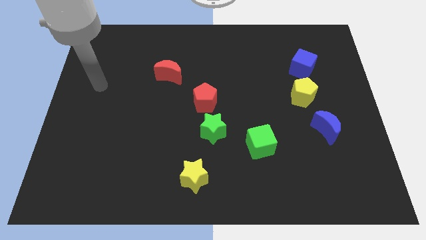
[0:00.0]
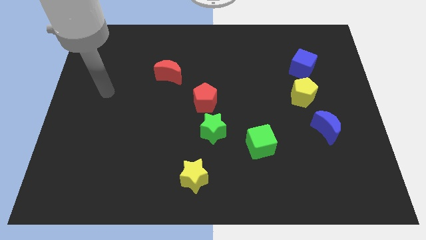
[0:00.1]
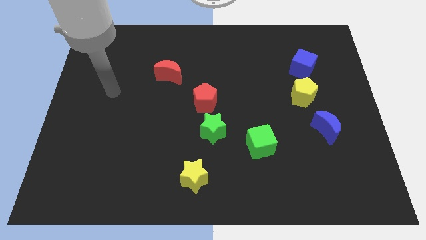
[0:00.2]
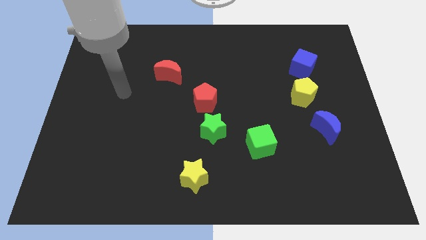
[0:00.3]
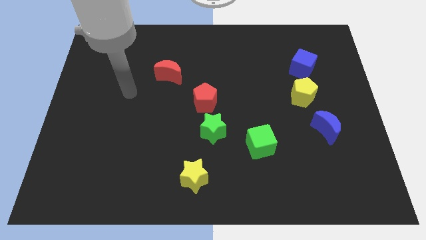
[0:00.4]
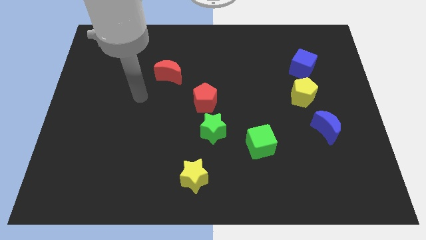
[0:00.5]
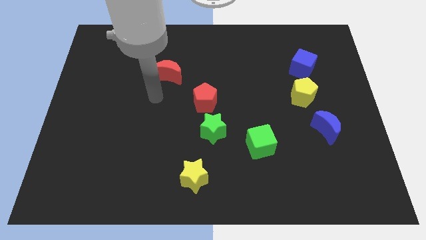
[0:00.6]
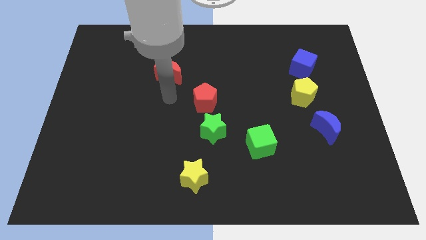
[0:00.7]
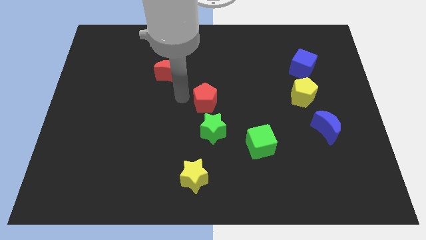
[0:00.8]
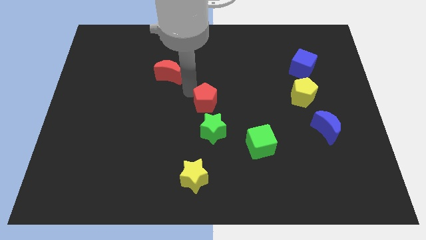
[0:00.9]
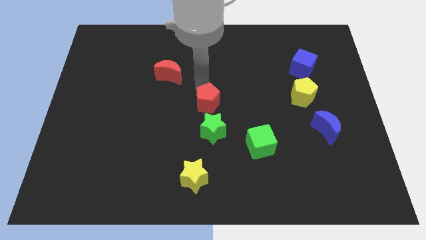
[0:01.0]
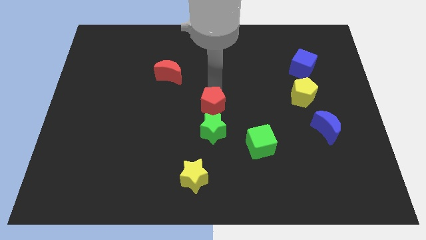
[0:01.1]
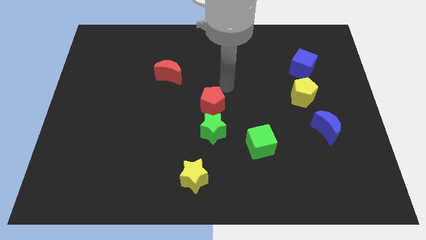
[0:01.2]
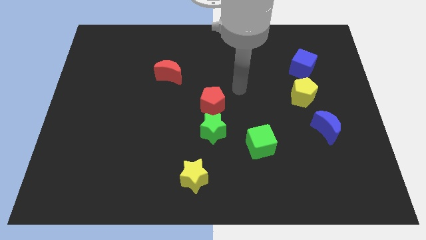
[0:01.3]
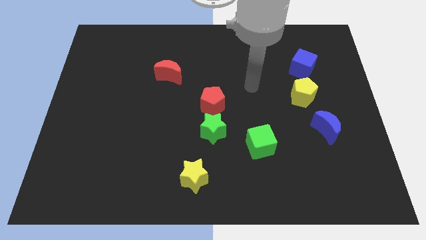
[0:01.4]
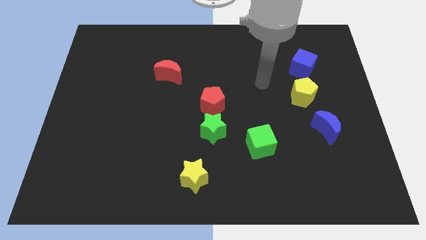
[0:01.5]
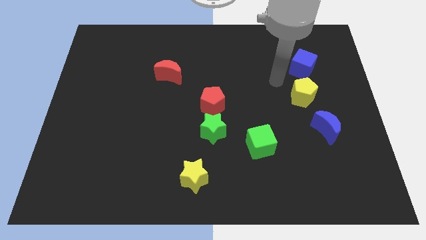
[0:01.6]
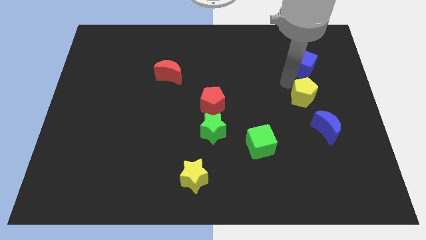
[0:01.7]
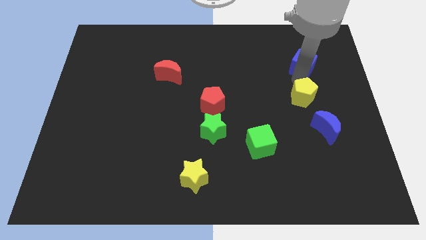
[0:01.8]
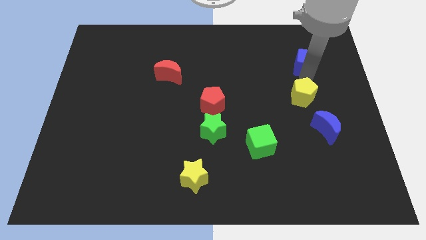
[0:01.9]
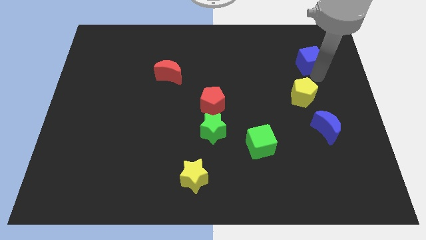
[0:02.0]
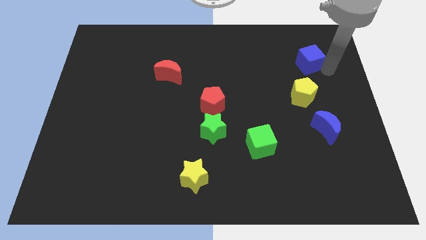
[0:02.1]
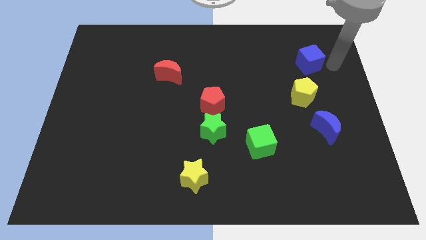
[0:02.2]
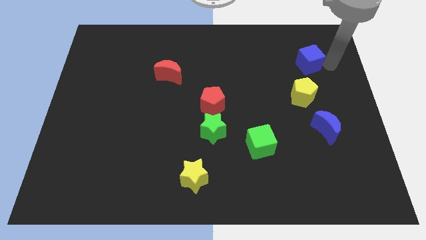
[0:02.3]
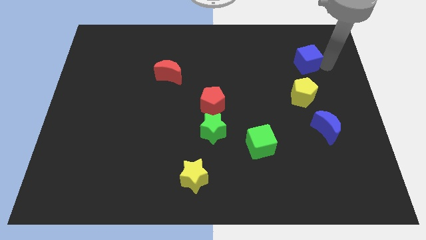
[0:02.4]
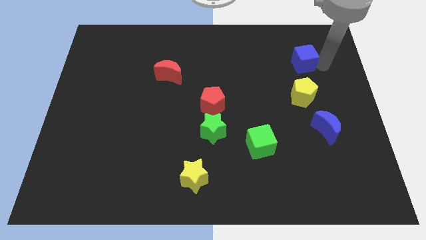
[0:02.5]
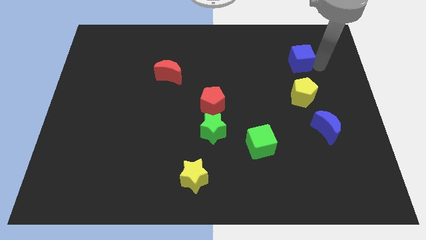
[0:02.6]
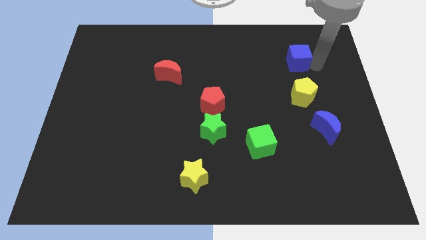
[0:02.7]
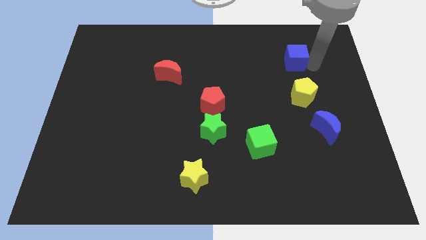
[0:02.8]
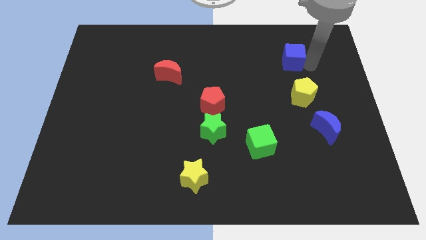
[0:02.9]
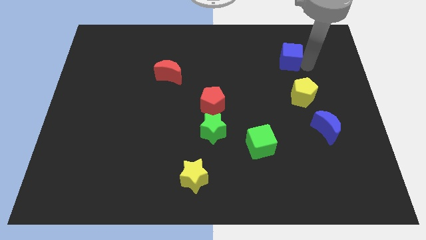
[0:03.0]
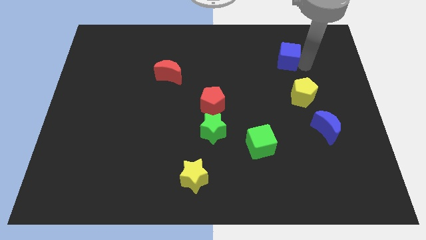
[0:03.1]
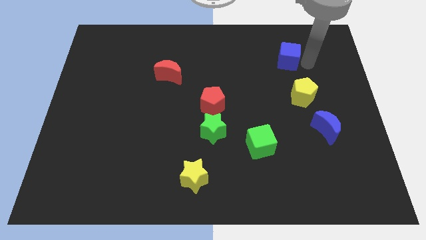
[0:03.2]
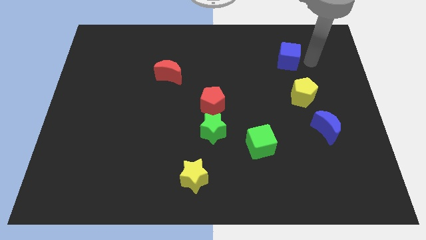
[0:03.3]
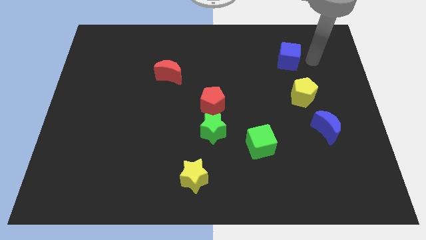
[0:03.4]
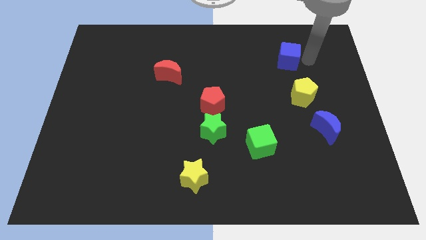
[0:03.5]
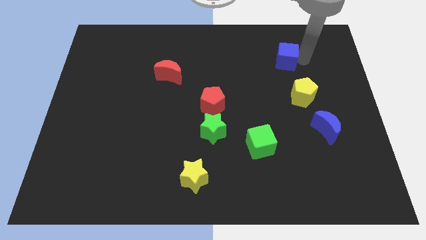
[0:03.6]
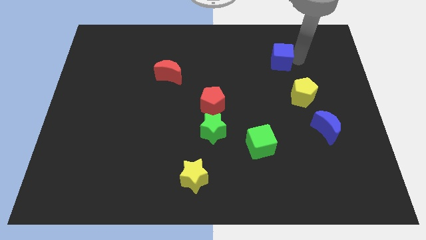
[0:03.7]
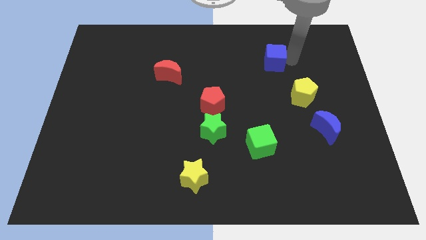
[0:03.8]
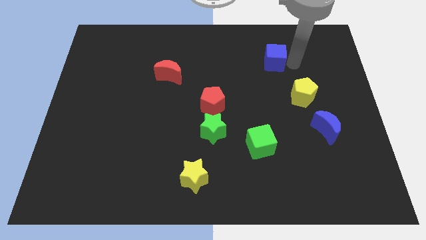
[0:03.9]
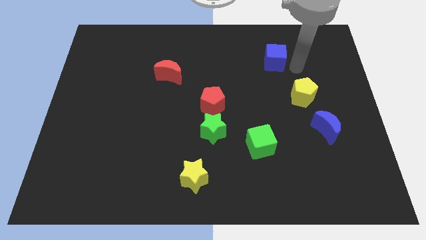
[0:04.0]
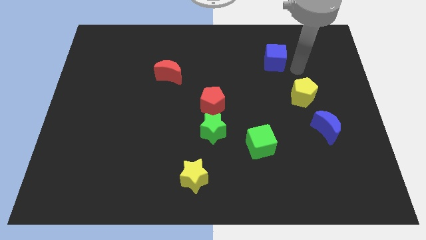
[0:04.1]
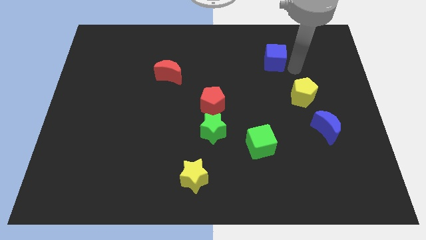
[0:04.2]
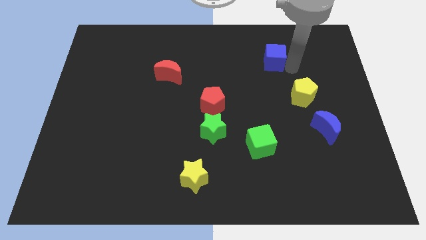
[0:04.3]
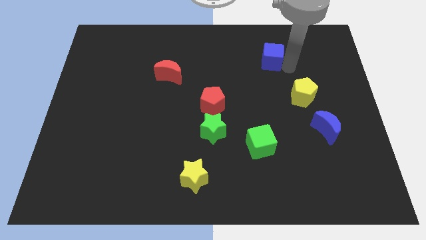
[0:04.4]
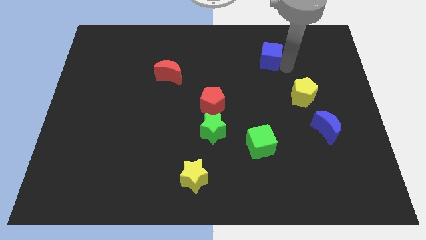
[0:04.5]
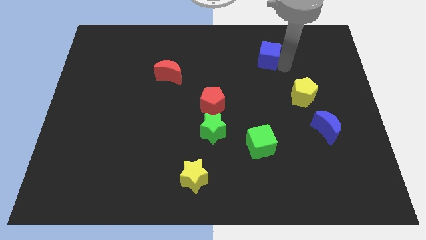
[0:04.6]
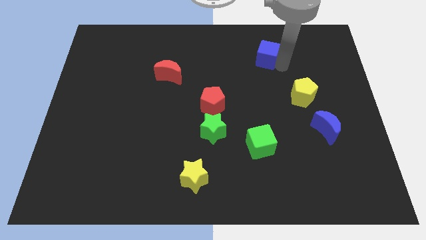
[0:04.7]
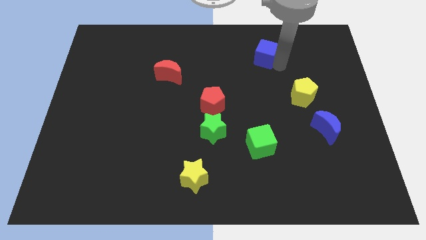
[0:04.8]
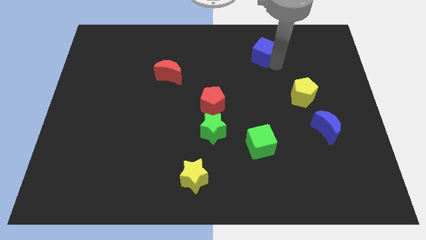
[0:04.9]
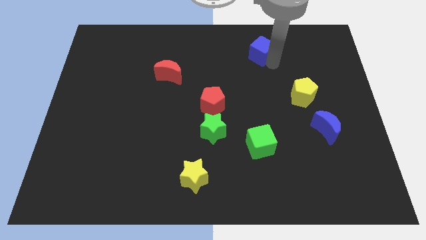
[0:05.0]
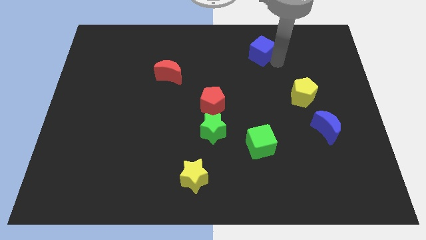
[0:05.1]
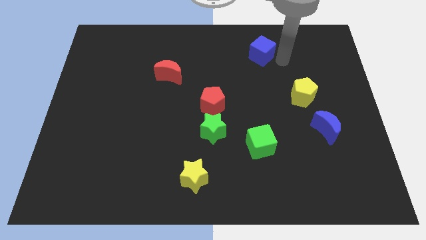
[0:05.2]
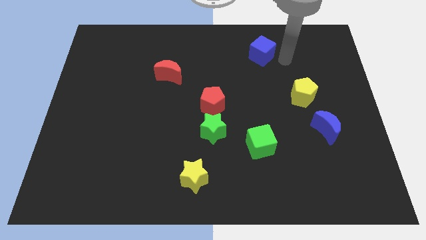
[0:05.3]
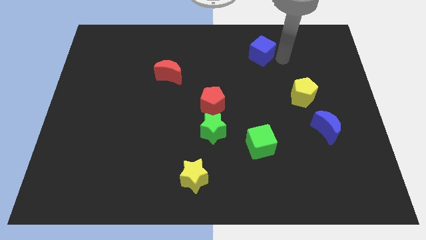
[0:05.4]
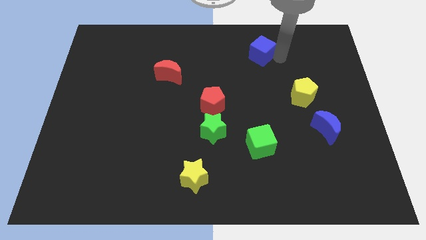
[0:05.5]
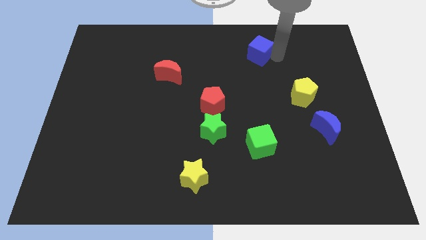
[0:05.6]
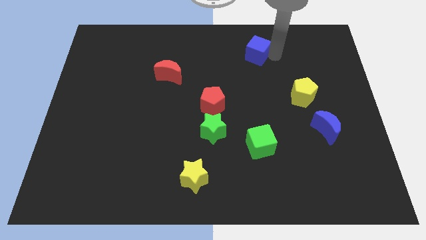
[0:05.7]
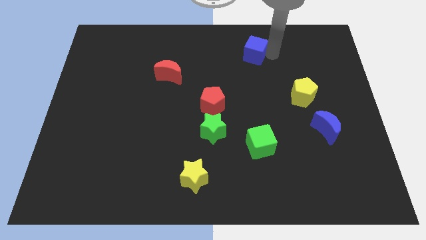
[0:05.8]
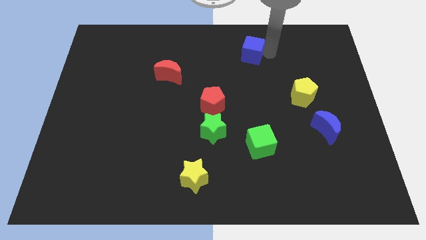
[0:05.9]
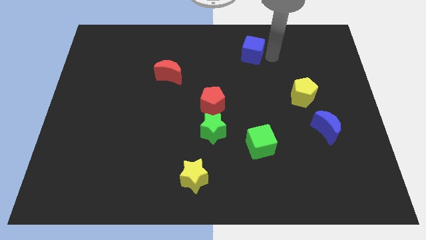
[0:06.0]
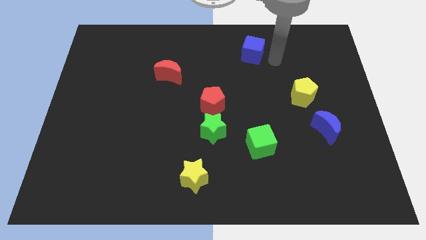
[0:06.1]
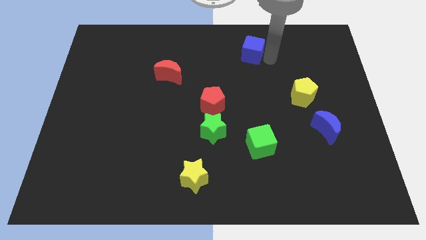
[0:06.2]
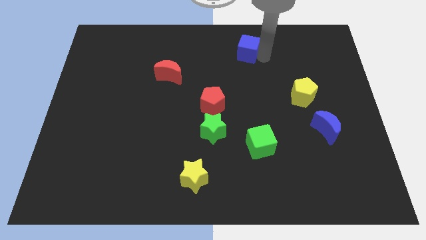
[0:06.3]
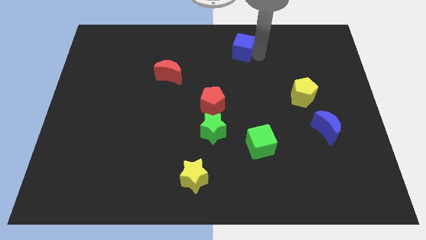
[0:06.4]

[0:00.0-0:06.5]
move the blue cube to the towards your base

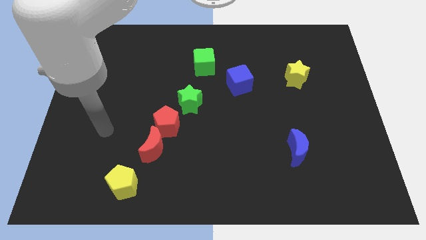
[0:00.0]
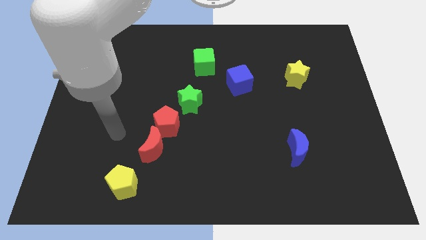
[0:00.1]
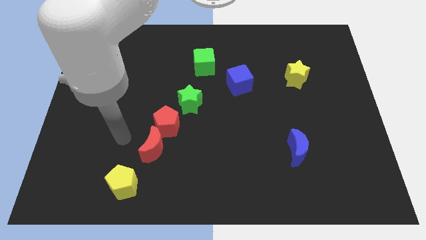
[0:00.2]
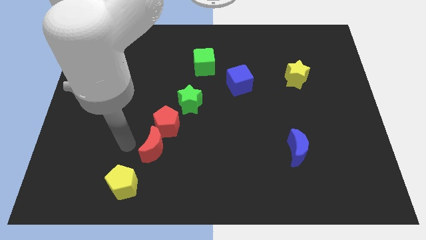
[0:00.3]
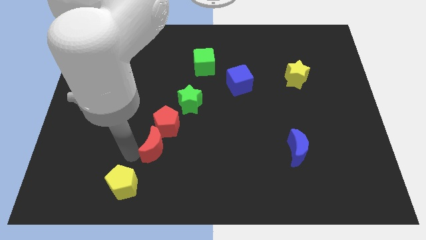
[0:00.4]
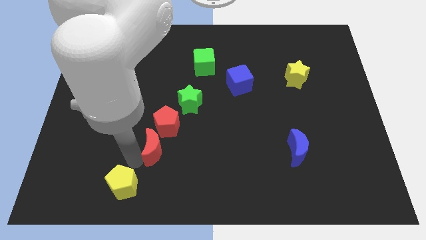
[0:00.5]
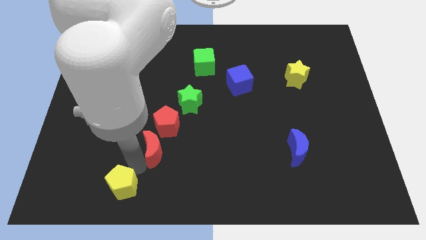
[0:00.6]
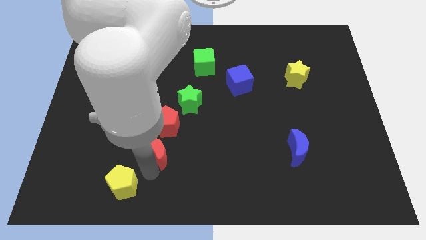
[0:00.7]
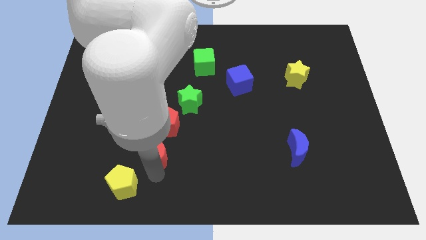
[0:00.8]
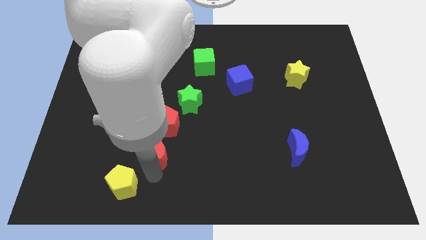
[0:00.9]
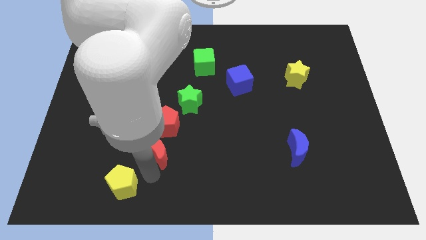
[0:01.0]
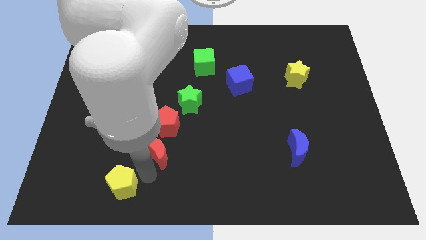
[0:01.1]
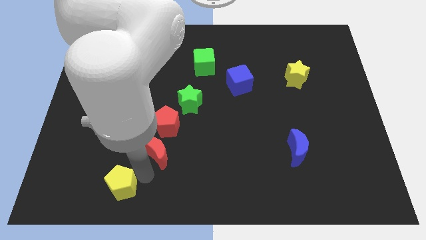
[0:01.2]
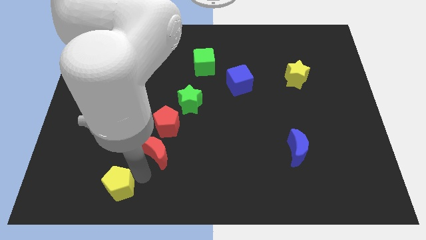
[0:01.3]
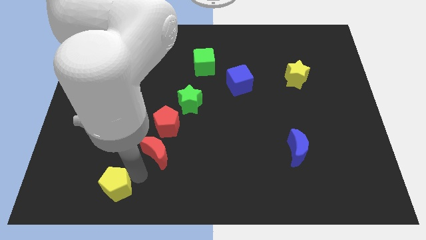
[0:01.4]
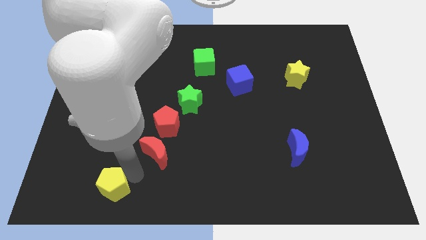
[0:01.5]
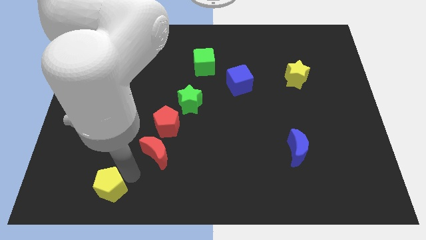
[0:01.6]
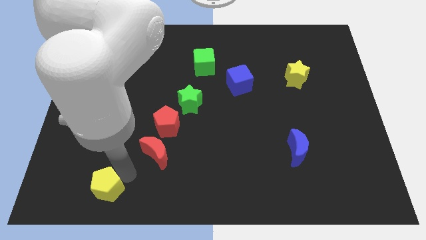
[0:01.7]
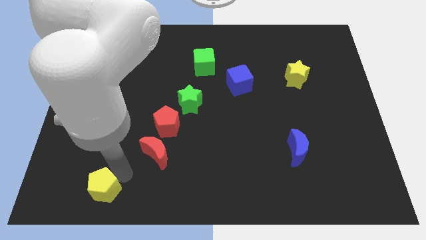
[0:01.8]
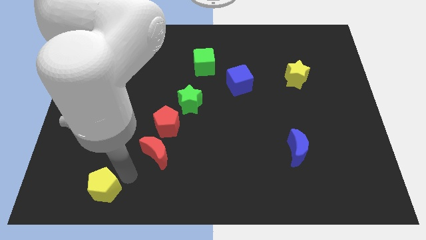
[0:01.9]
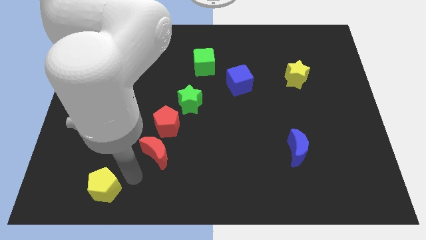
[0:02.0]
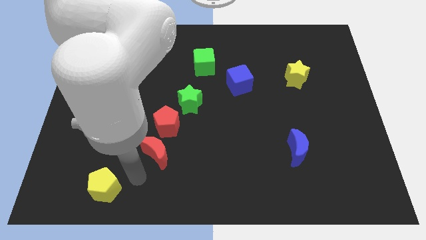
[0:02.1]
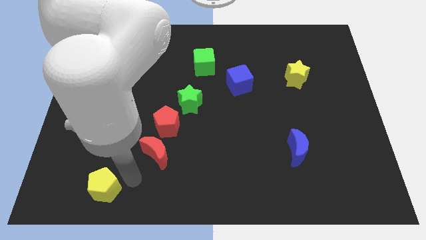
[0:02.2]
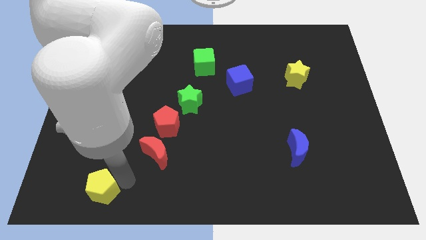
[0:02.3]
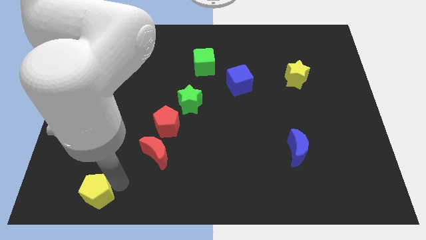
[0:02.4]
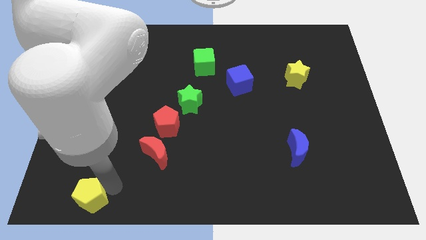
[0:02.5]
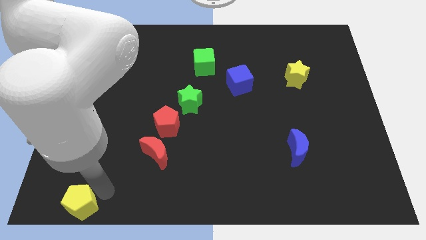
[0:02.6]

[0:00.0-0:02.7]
put the yellow pentagon to the bottom left
